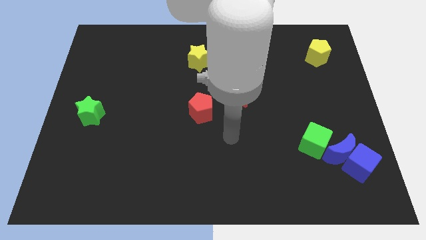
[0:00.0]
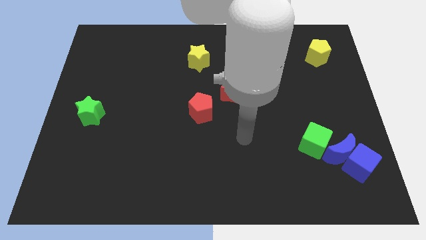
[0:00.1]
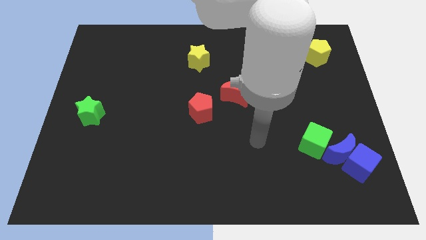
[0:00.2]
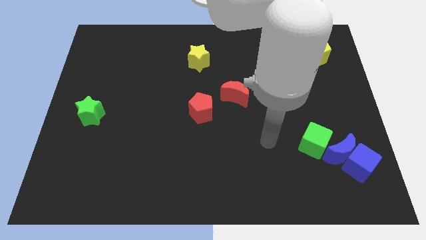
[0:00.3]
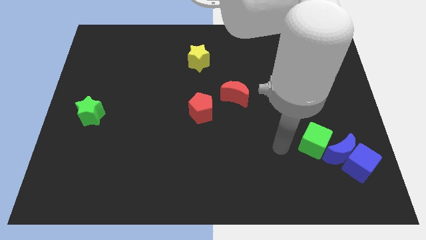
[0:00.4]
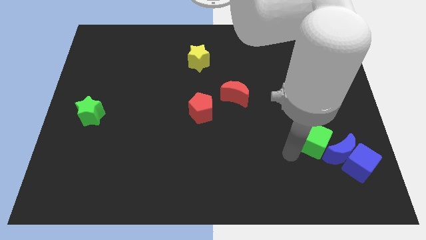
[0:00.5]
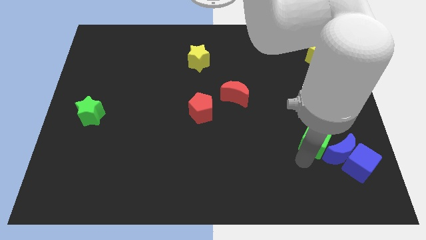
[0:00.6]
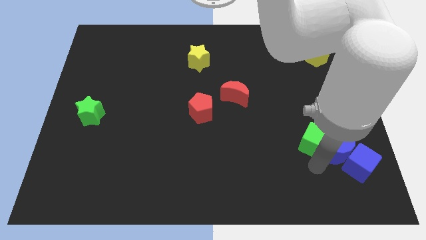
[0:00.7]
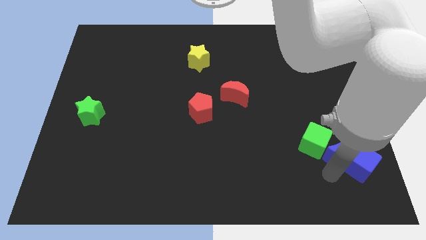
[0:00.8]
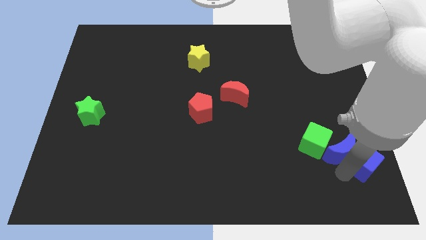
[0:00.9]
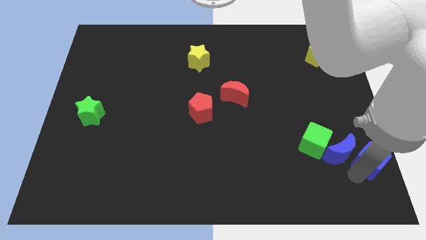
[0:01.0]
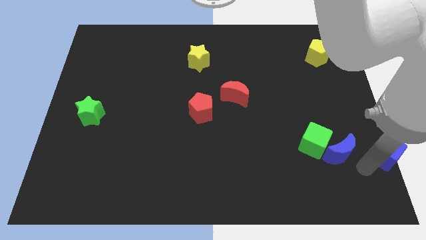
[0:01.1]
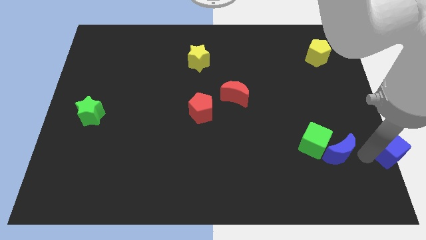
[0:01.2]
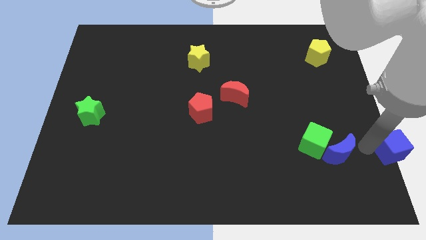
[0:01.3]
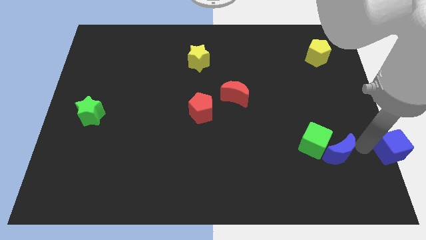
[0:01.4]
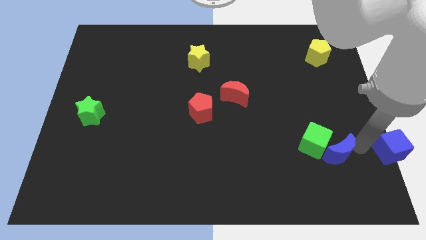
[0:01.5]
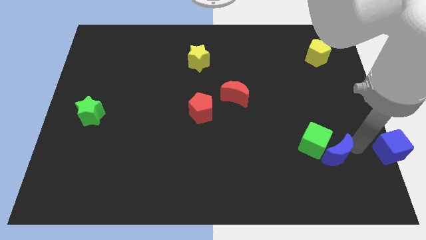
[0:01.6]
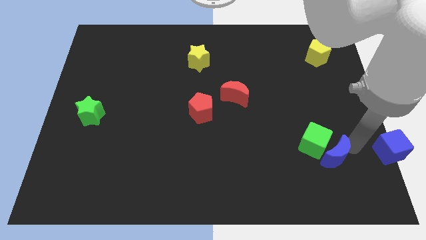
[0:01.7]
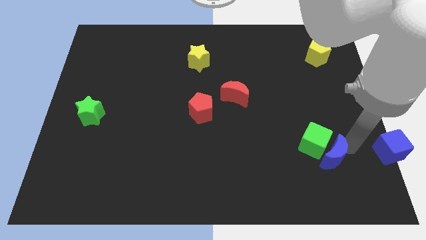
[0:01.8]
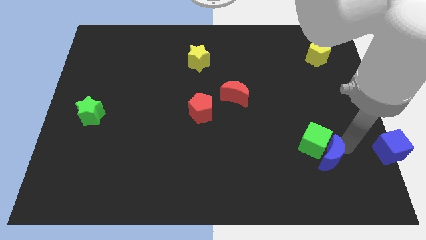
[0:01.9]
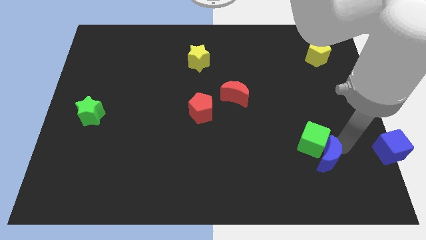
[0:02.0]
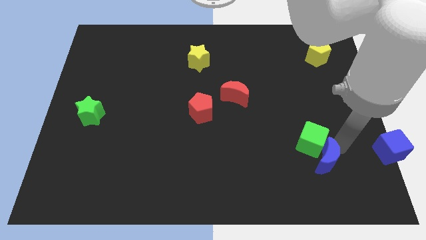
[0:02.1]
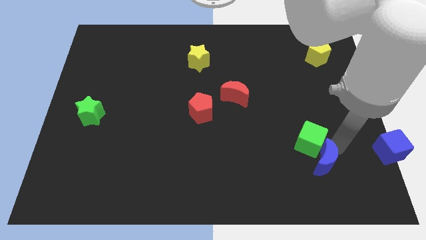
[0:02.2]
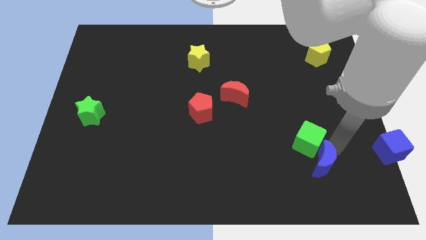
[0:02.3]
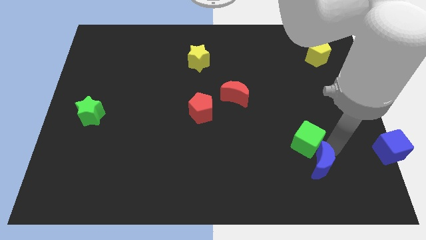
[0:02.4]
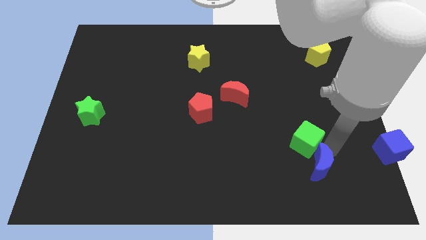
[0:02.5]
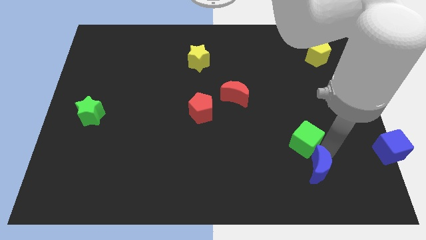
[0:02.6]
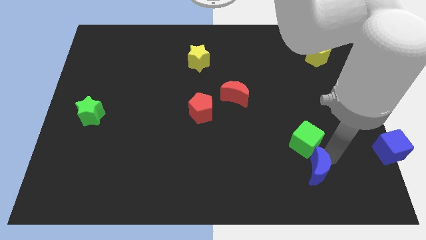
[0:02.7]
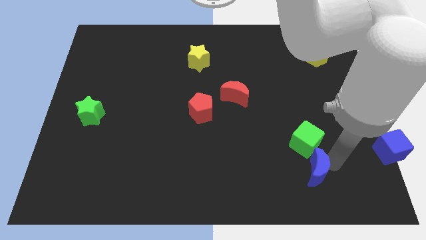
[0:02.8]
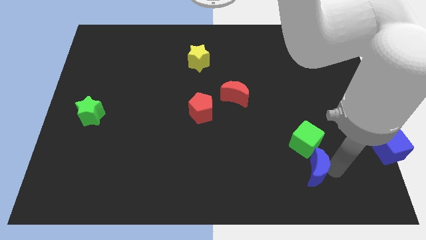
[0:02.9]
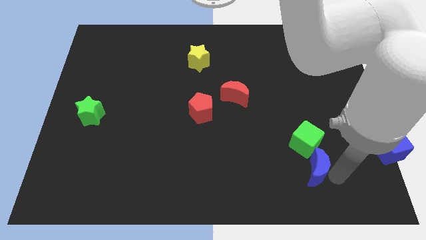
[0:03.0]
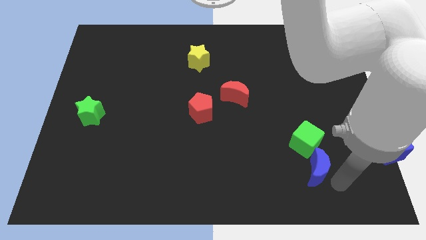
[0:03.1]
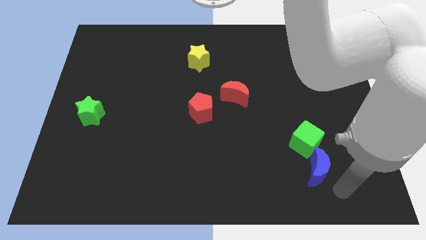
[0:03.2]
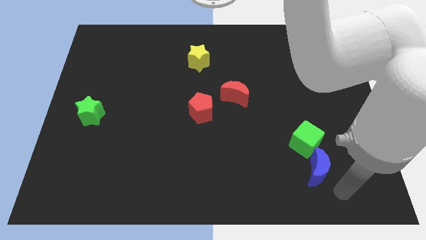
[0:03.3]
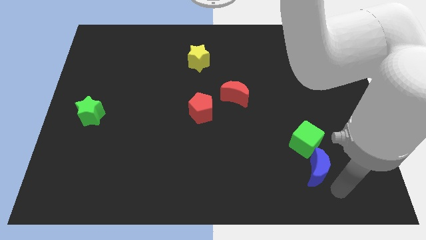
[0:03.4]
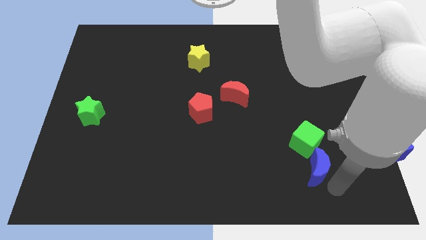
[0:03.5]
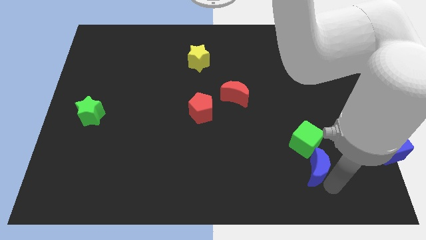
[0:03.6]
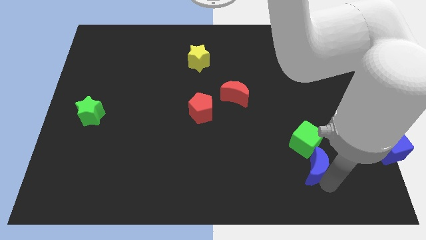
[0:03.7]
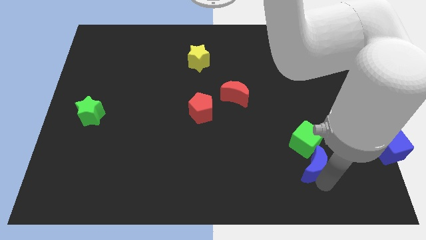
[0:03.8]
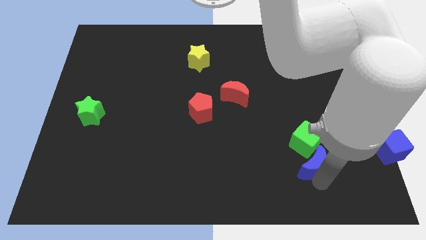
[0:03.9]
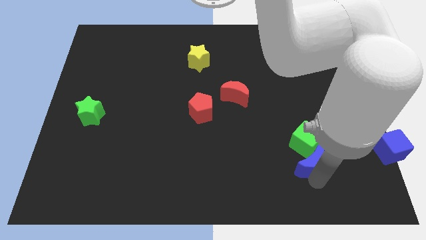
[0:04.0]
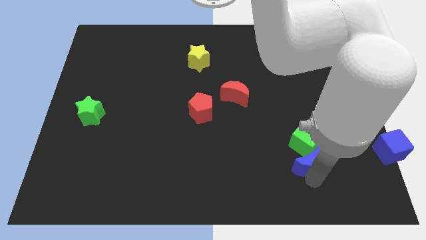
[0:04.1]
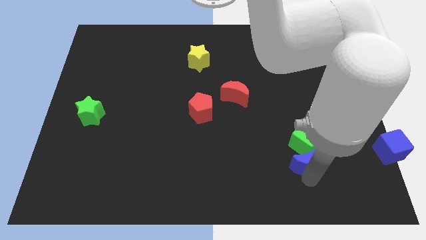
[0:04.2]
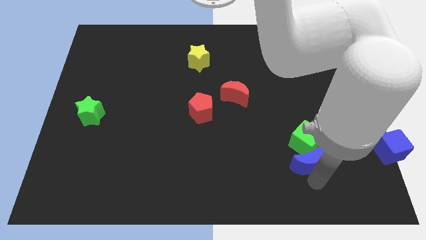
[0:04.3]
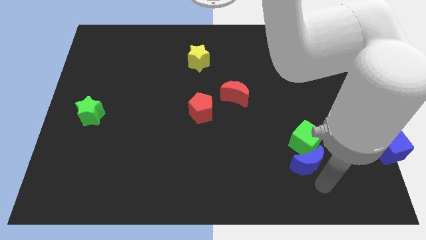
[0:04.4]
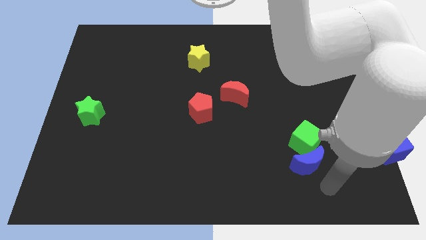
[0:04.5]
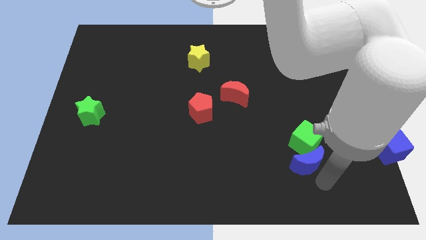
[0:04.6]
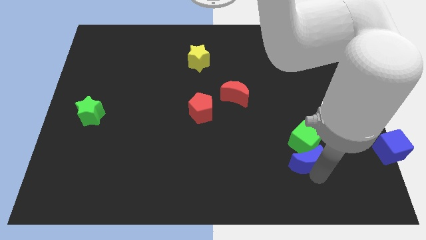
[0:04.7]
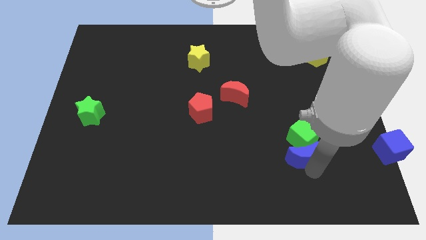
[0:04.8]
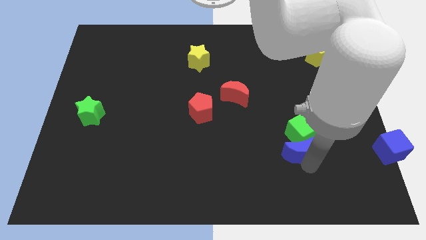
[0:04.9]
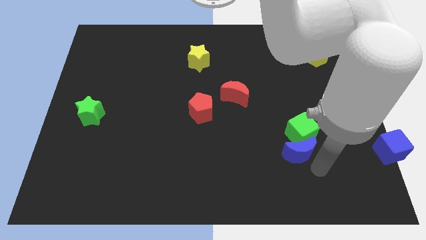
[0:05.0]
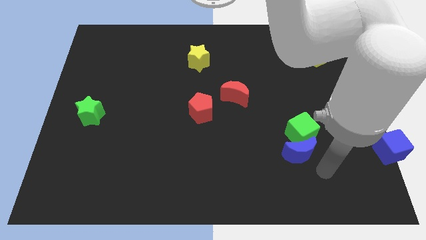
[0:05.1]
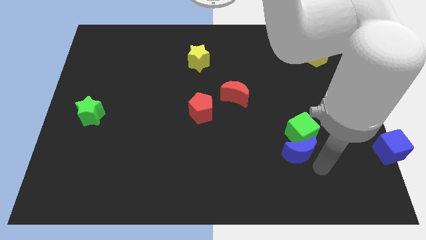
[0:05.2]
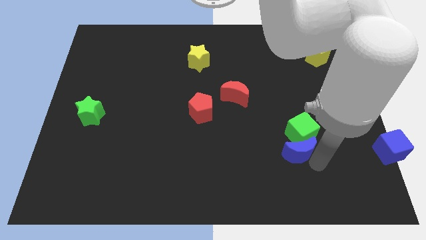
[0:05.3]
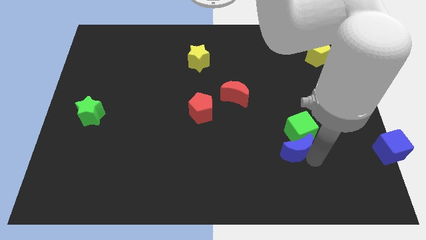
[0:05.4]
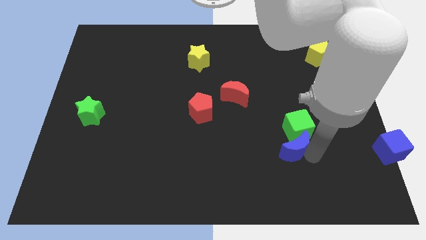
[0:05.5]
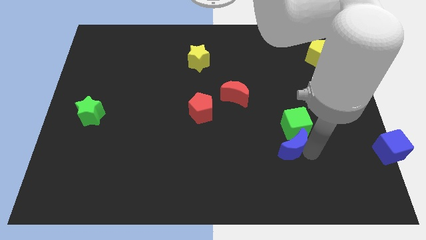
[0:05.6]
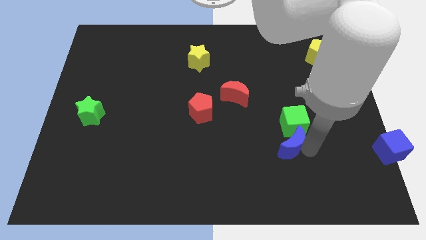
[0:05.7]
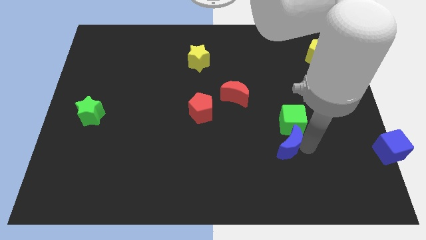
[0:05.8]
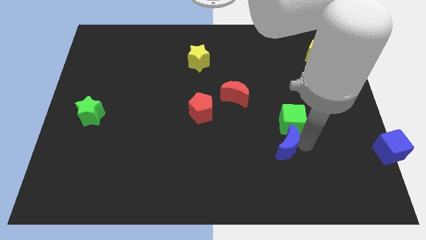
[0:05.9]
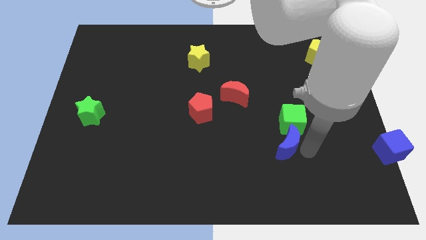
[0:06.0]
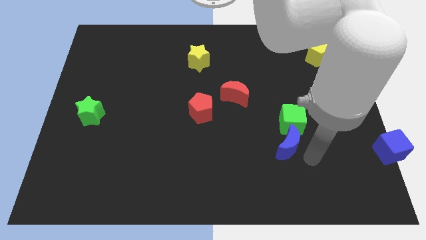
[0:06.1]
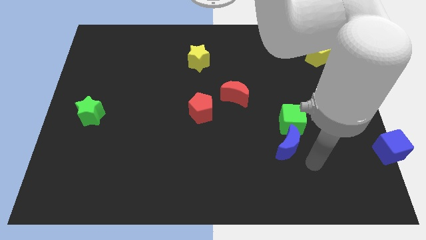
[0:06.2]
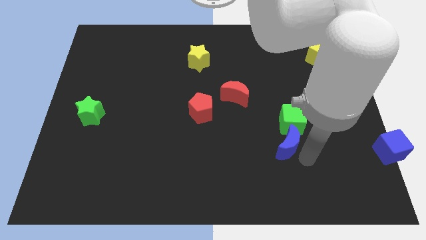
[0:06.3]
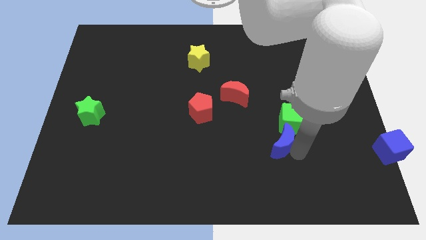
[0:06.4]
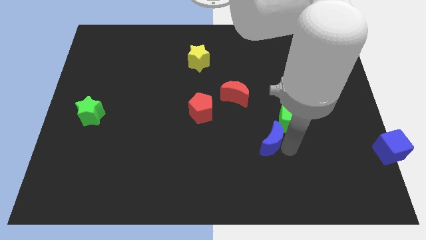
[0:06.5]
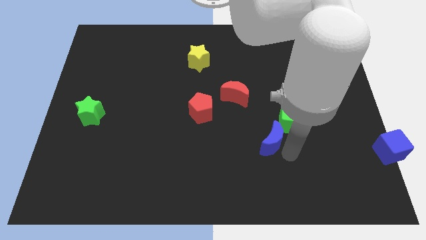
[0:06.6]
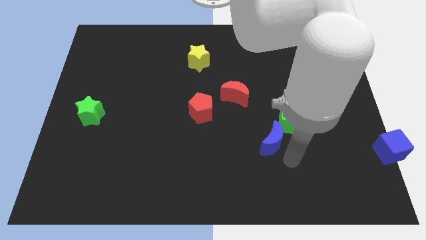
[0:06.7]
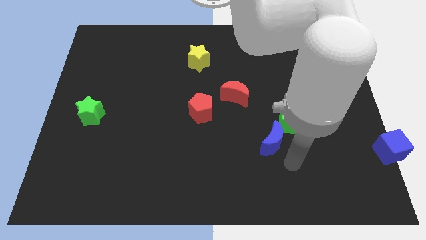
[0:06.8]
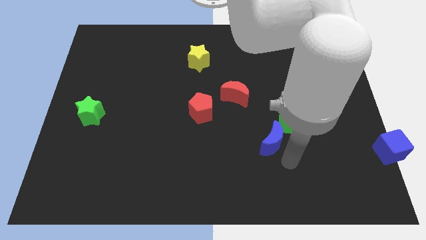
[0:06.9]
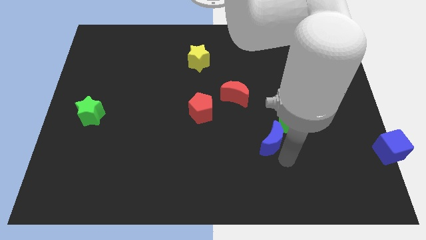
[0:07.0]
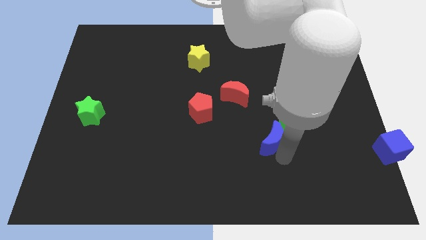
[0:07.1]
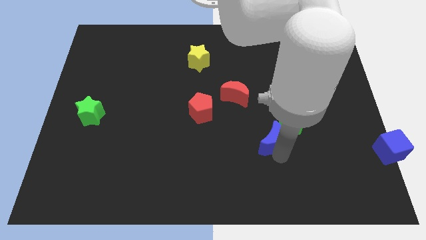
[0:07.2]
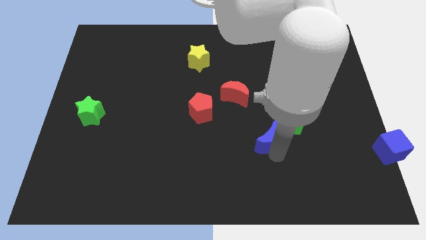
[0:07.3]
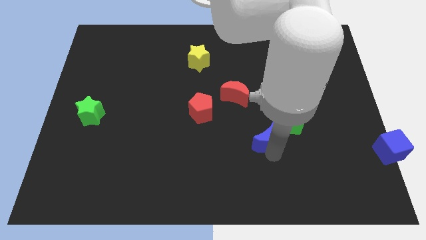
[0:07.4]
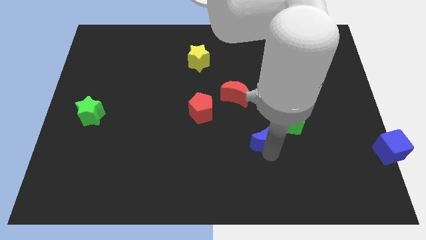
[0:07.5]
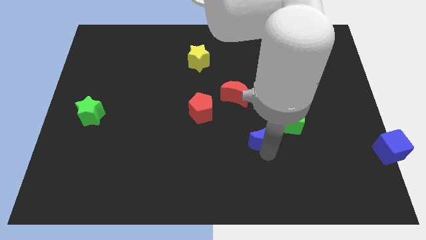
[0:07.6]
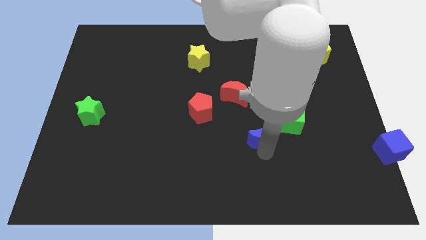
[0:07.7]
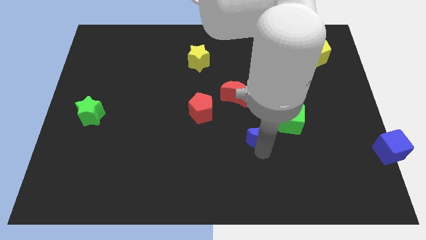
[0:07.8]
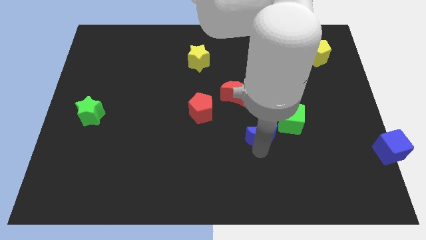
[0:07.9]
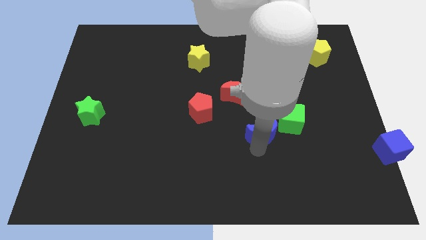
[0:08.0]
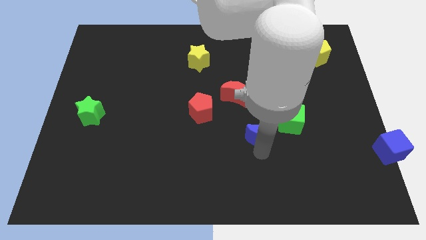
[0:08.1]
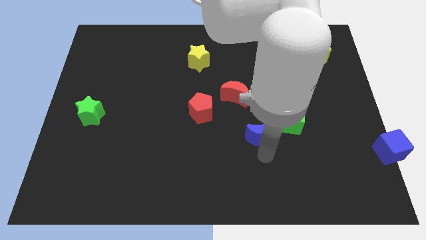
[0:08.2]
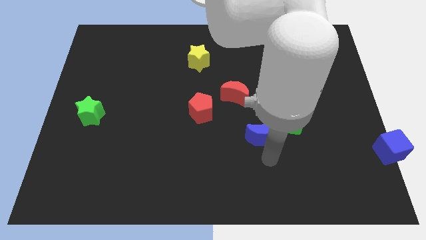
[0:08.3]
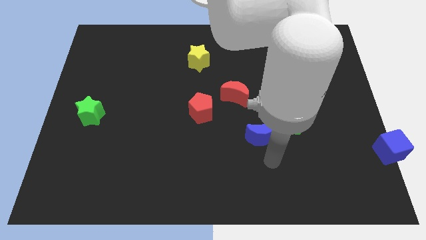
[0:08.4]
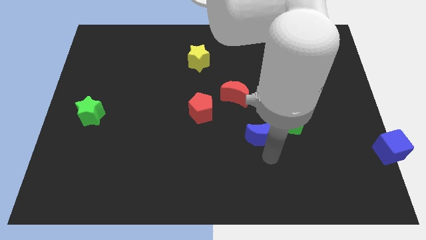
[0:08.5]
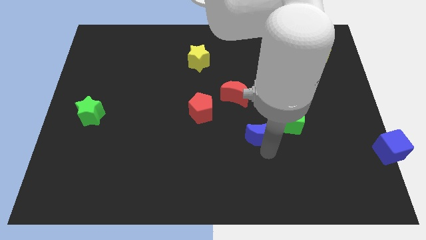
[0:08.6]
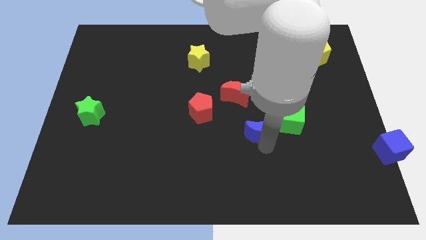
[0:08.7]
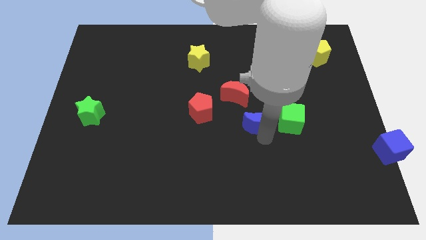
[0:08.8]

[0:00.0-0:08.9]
push the blue moon to the middle
